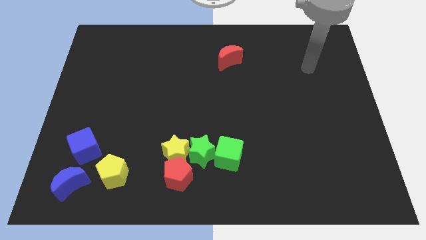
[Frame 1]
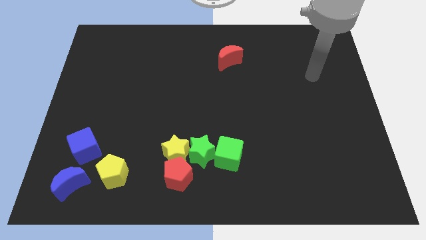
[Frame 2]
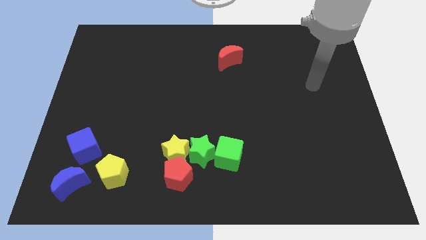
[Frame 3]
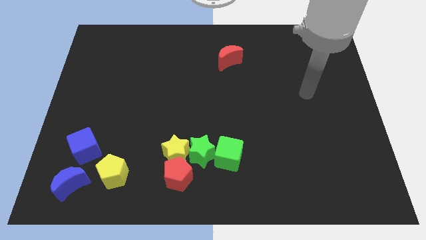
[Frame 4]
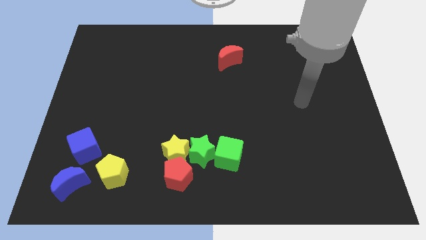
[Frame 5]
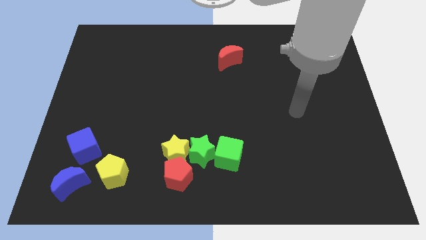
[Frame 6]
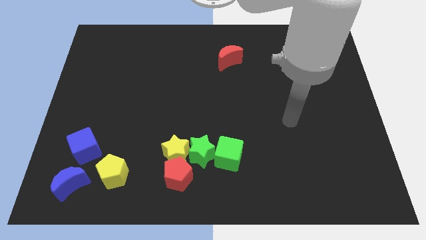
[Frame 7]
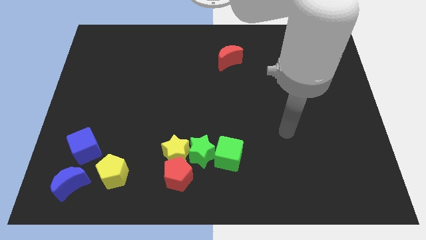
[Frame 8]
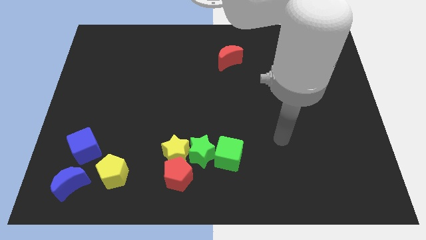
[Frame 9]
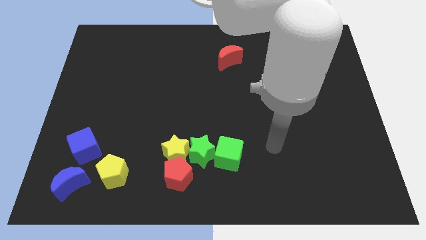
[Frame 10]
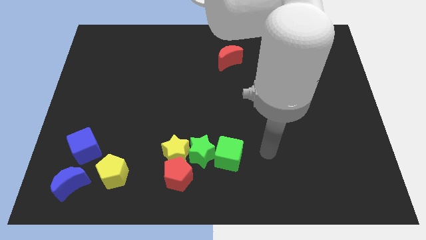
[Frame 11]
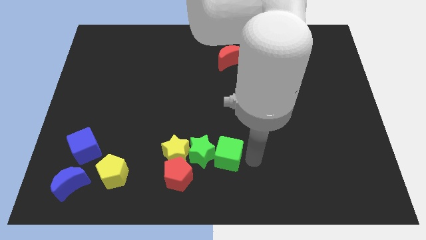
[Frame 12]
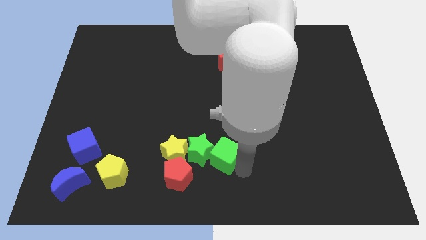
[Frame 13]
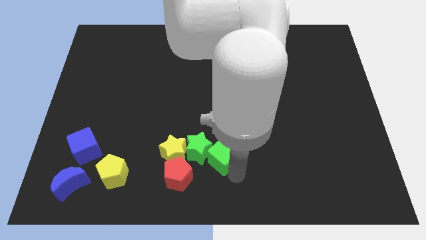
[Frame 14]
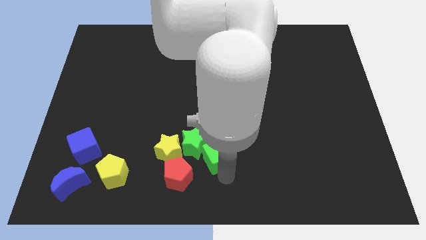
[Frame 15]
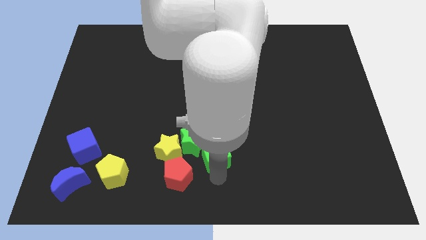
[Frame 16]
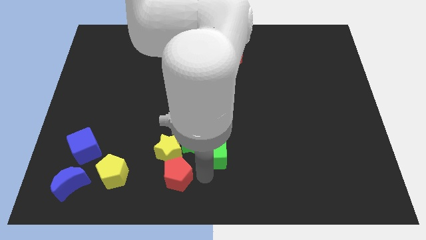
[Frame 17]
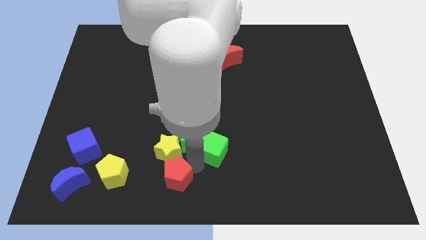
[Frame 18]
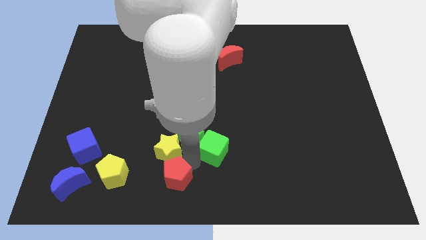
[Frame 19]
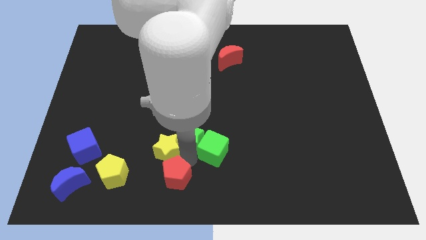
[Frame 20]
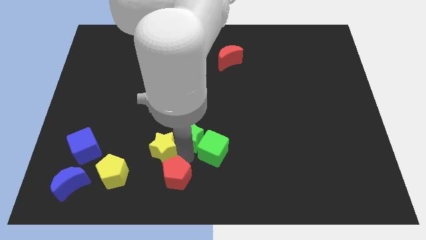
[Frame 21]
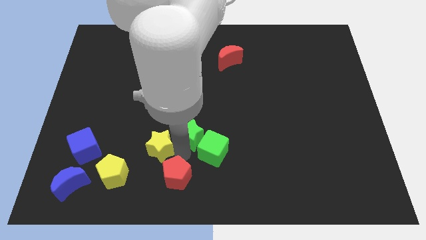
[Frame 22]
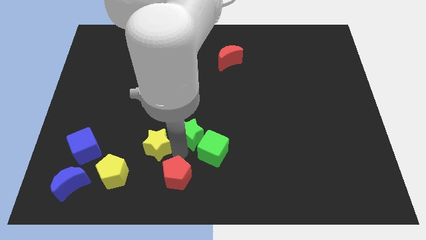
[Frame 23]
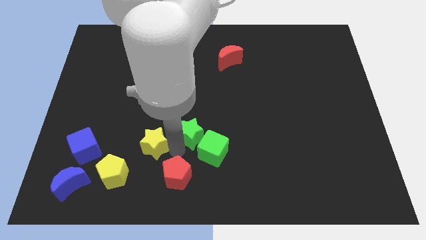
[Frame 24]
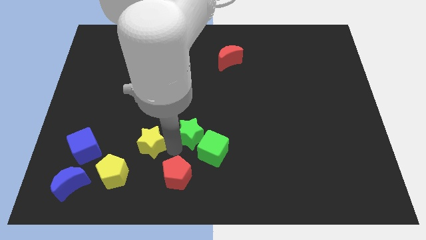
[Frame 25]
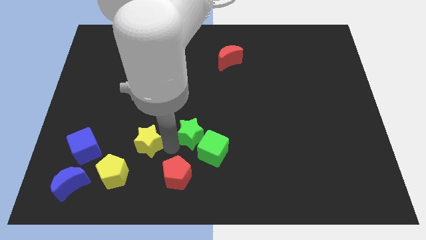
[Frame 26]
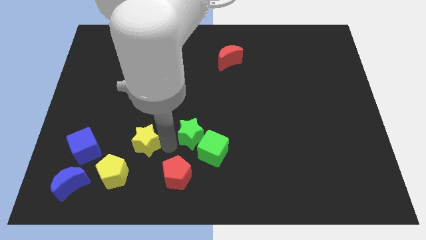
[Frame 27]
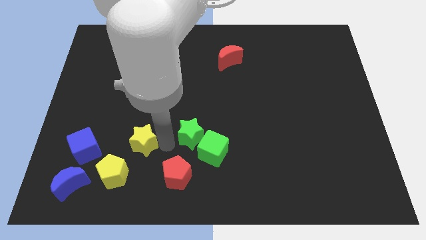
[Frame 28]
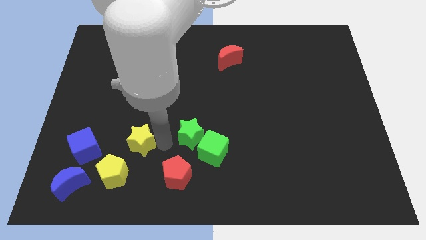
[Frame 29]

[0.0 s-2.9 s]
pull the yellow star apart from the green star and red pentagon

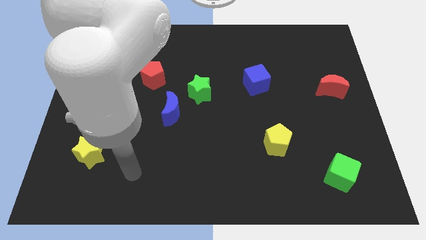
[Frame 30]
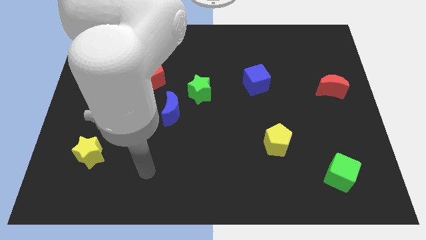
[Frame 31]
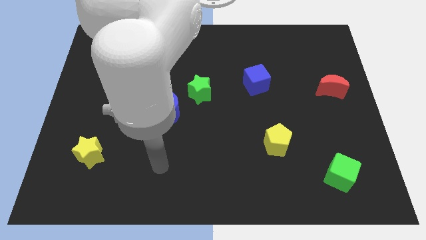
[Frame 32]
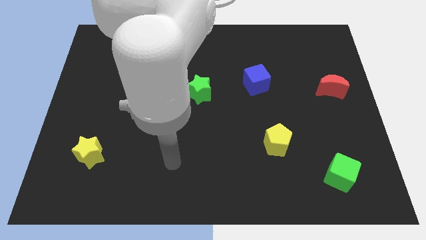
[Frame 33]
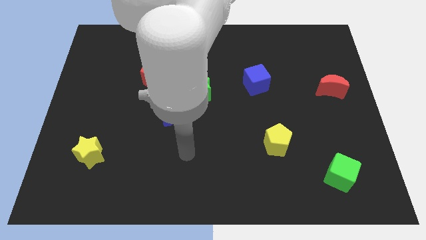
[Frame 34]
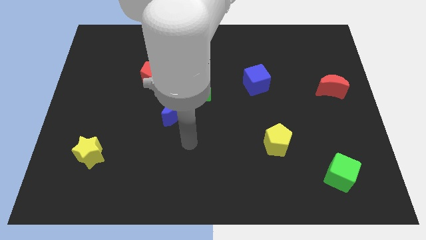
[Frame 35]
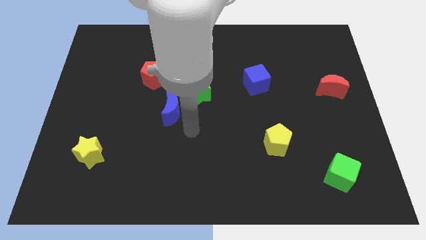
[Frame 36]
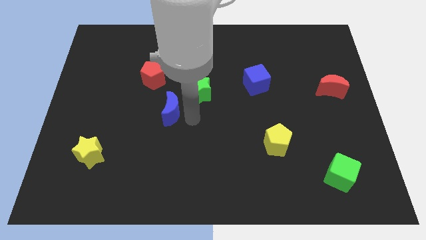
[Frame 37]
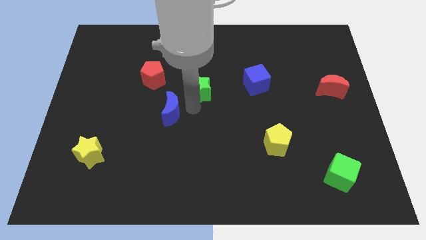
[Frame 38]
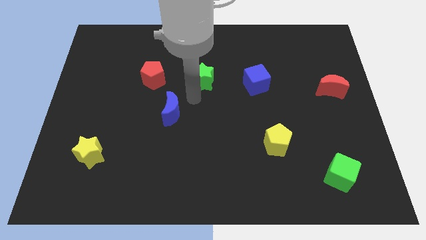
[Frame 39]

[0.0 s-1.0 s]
separate the blue moon from the green star

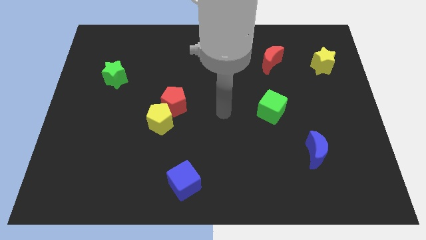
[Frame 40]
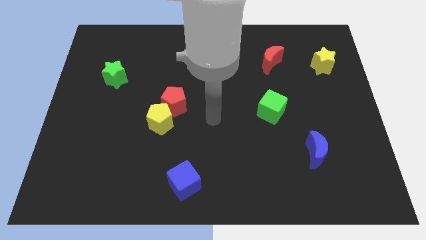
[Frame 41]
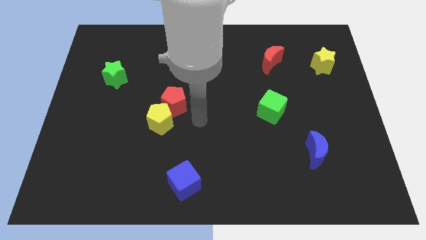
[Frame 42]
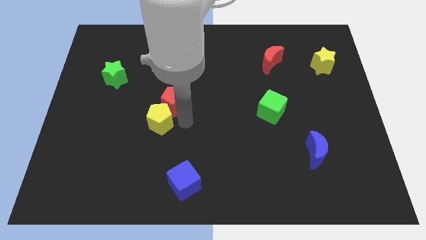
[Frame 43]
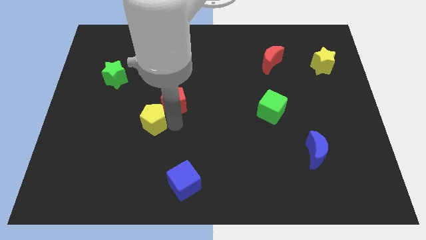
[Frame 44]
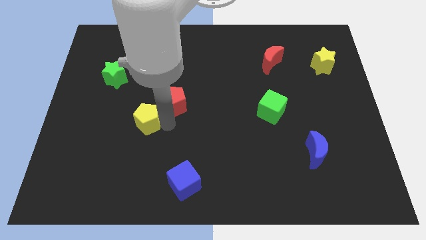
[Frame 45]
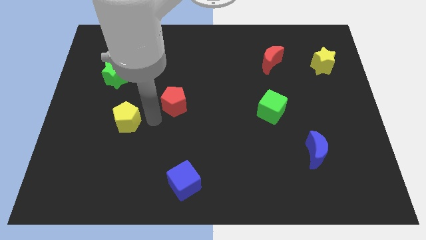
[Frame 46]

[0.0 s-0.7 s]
pull the red pentagon apart from the yellow pentagon

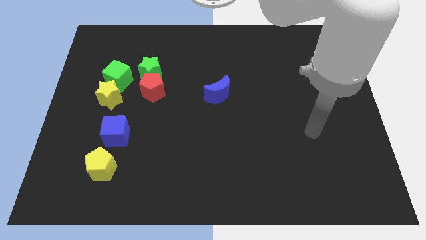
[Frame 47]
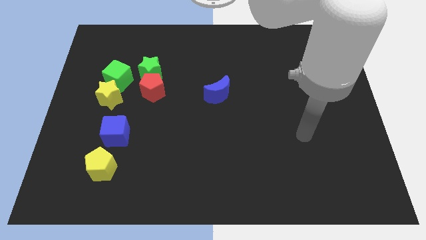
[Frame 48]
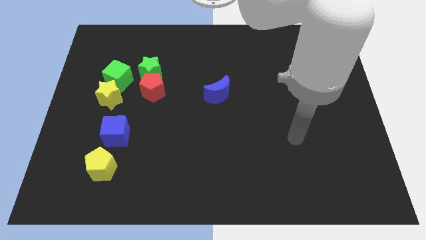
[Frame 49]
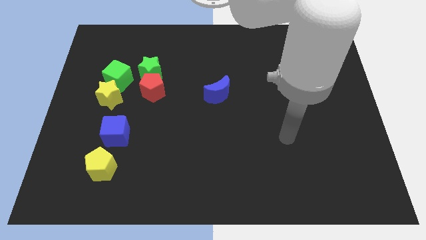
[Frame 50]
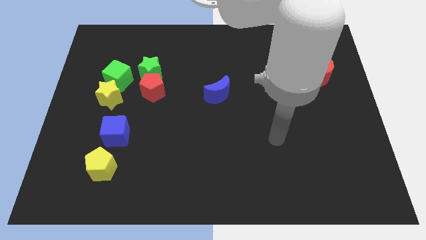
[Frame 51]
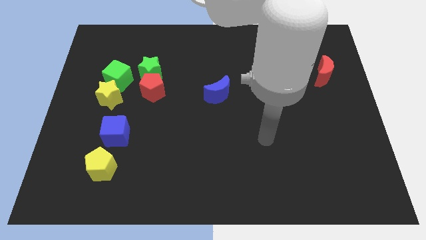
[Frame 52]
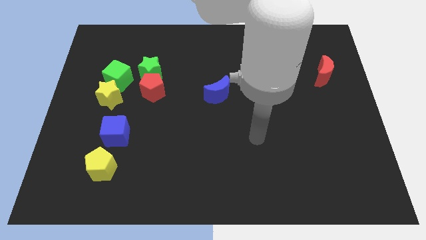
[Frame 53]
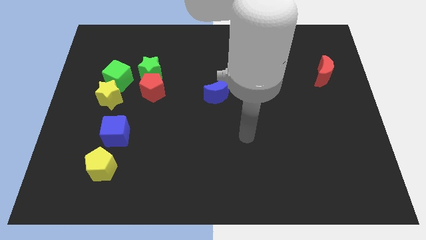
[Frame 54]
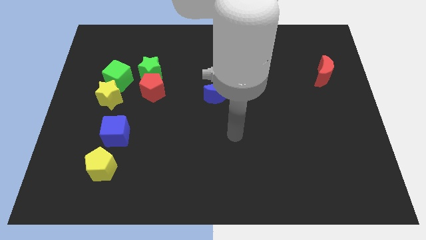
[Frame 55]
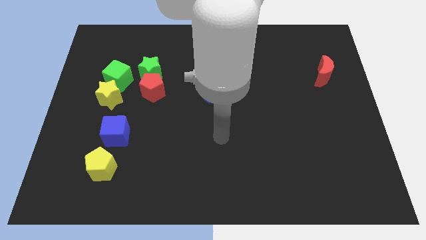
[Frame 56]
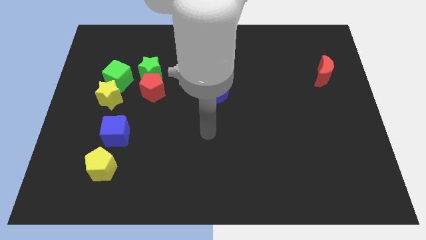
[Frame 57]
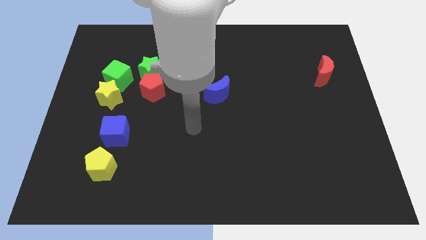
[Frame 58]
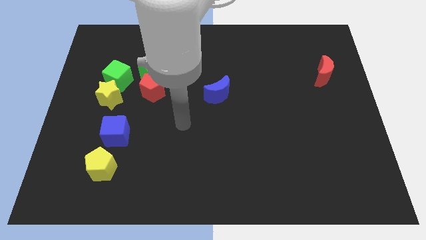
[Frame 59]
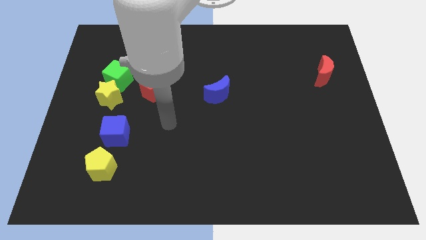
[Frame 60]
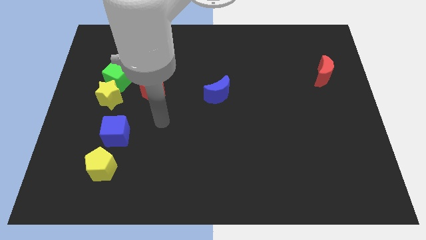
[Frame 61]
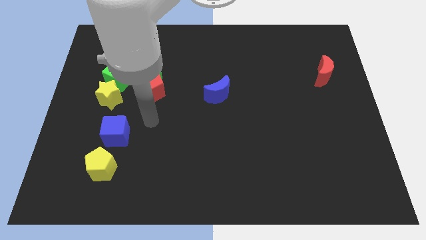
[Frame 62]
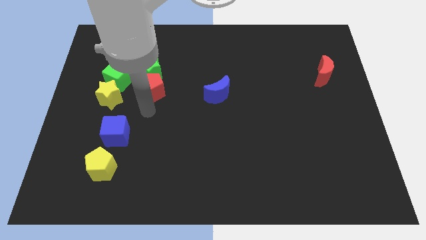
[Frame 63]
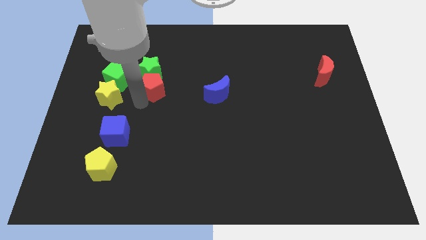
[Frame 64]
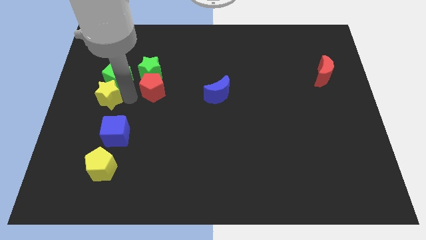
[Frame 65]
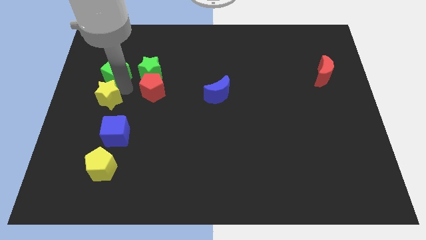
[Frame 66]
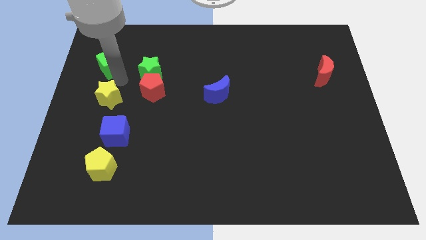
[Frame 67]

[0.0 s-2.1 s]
pull the yellow star apart from the green cube

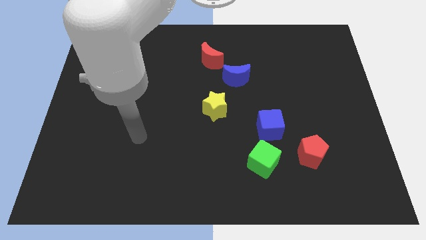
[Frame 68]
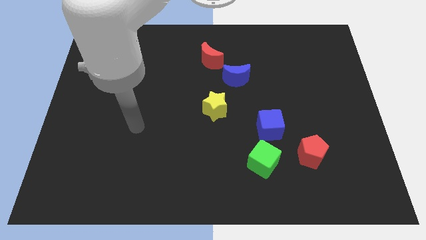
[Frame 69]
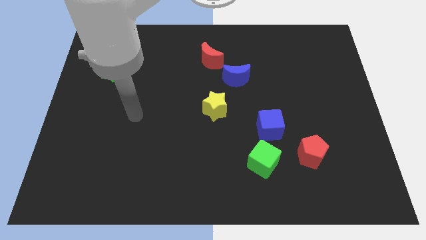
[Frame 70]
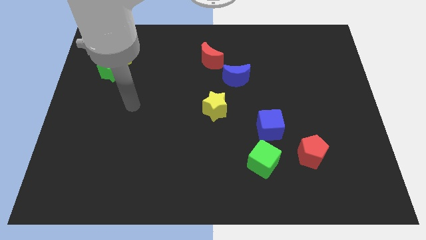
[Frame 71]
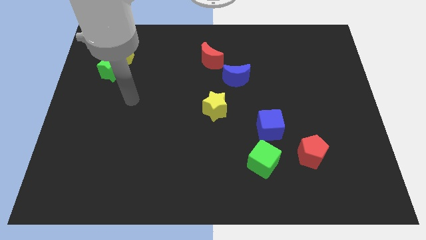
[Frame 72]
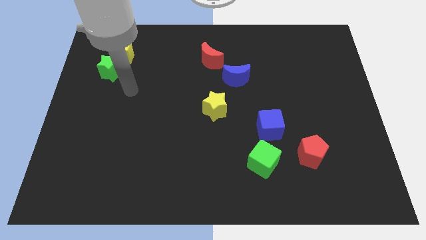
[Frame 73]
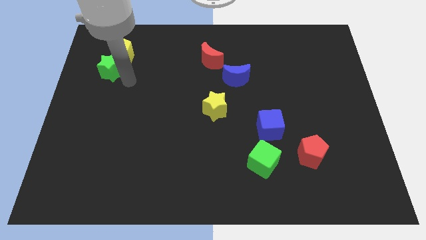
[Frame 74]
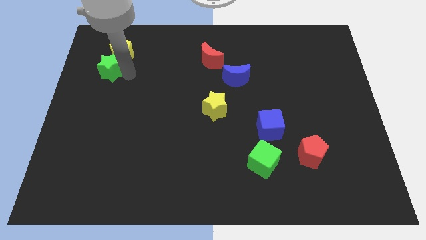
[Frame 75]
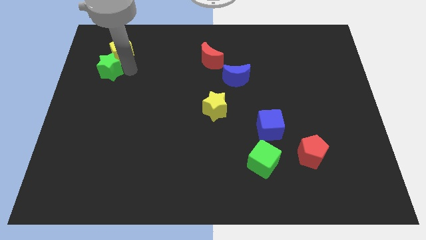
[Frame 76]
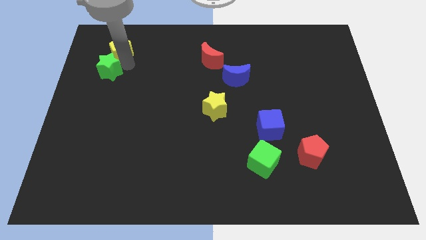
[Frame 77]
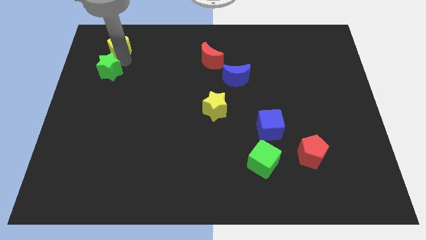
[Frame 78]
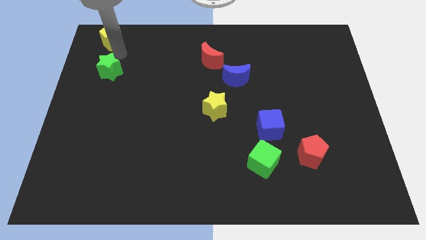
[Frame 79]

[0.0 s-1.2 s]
pull the green star apart from the yellow pentagon

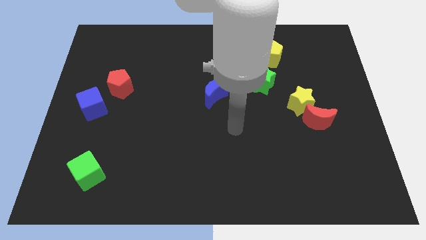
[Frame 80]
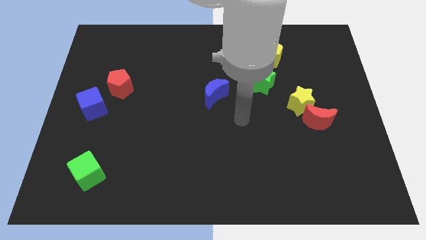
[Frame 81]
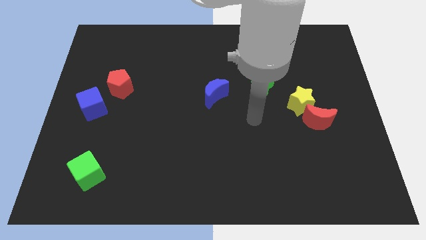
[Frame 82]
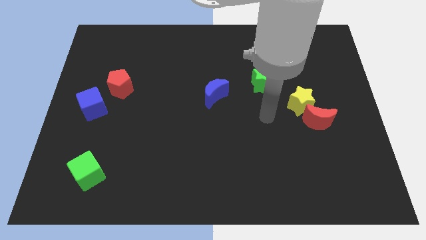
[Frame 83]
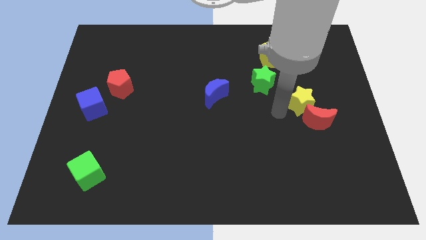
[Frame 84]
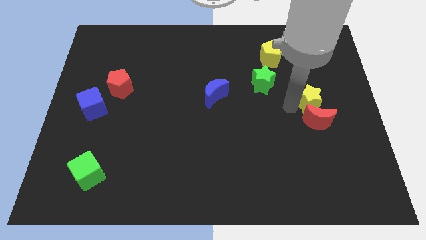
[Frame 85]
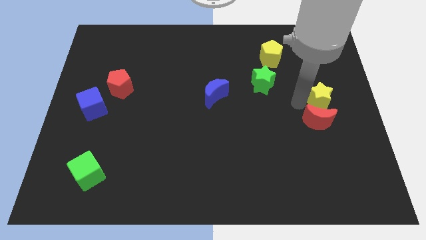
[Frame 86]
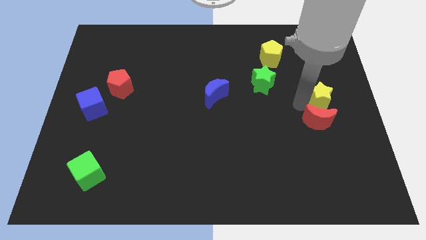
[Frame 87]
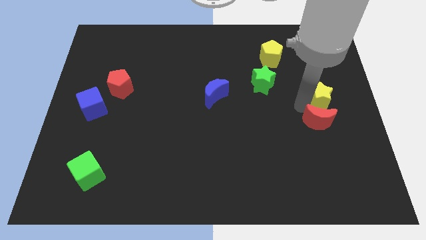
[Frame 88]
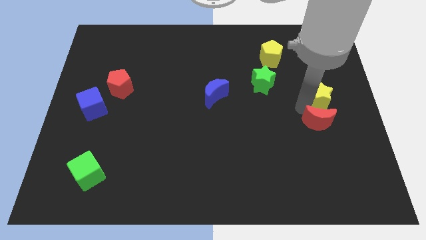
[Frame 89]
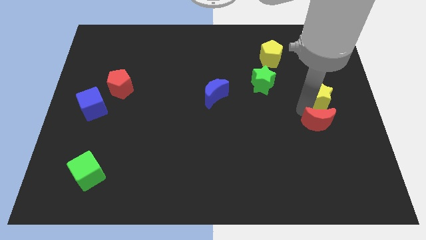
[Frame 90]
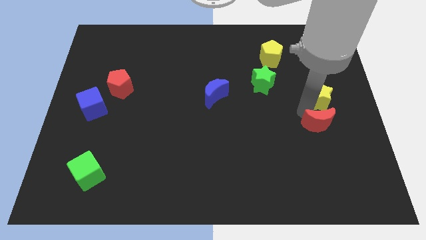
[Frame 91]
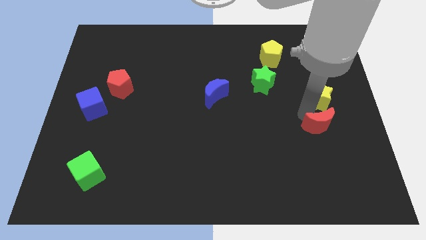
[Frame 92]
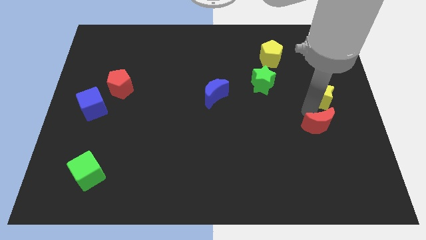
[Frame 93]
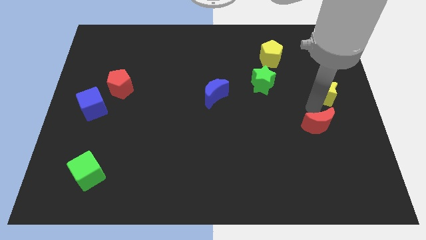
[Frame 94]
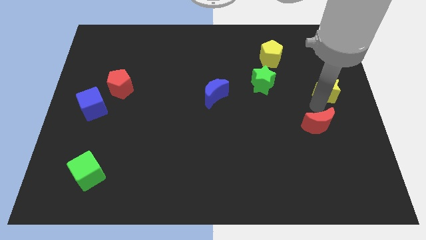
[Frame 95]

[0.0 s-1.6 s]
pull the red moon apart from the yellow star
